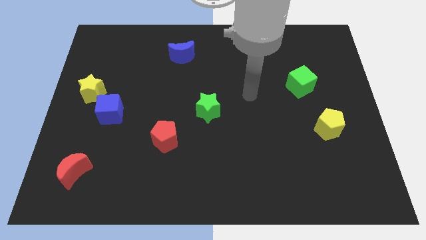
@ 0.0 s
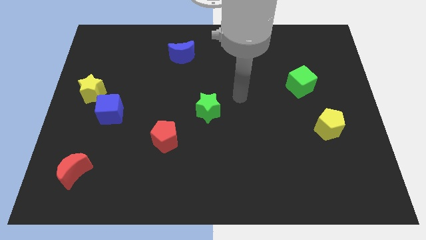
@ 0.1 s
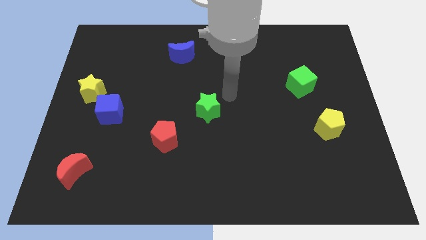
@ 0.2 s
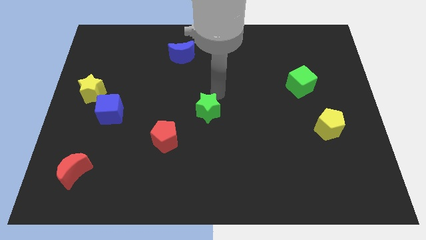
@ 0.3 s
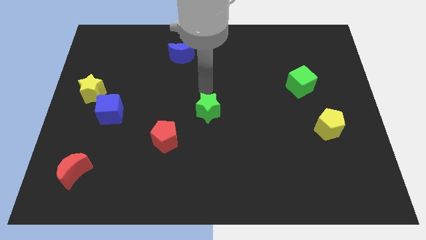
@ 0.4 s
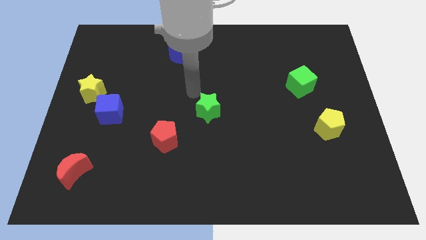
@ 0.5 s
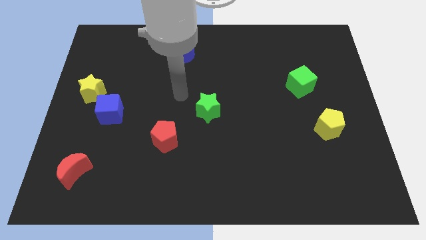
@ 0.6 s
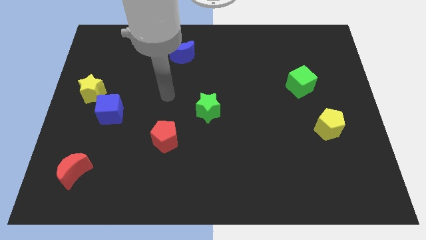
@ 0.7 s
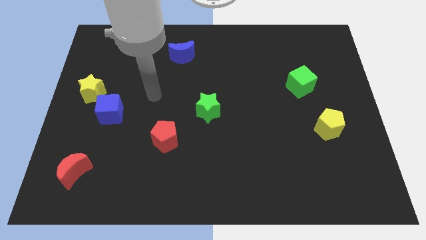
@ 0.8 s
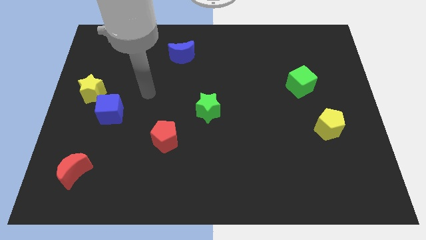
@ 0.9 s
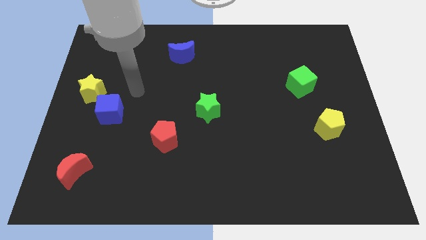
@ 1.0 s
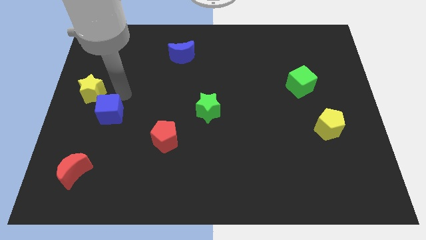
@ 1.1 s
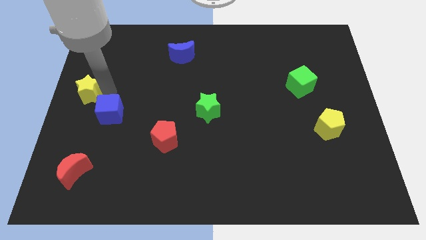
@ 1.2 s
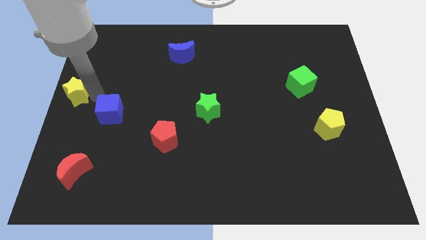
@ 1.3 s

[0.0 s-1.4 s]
move the blue cube away from the yellow star

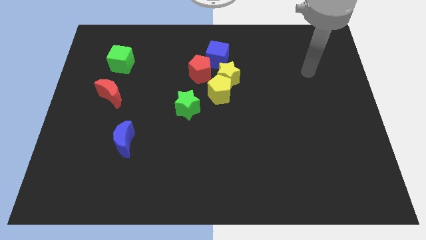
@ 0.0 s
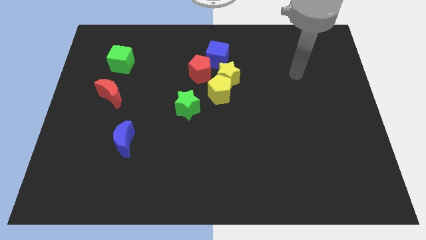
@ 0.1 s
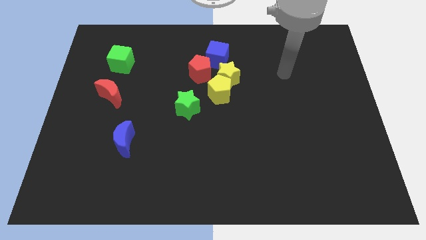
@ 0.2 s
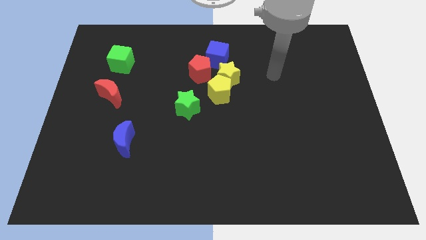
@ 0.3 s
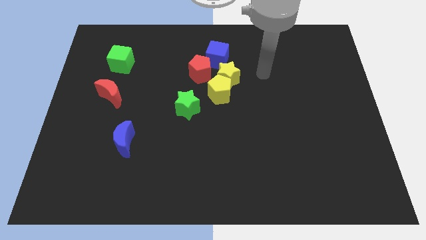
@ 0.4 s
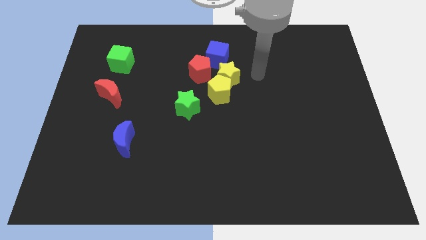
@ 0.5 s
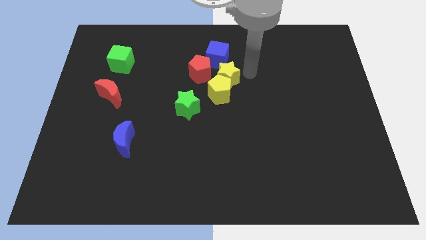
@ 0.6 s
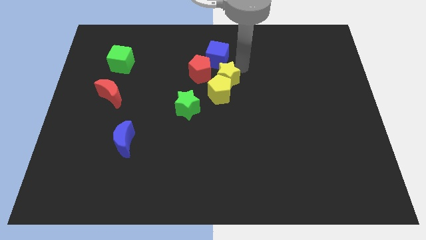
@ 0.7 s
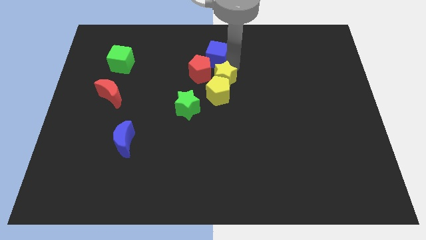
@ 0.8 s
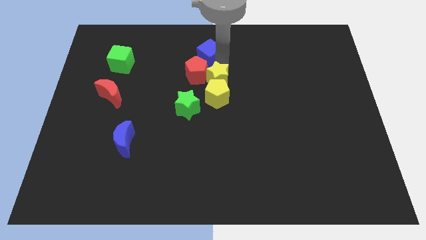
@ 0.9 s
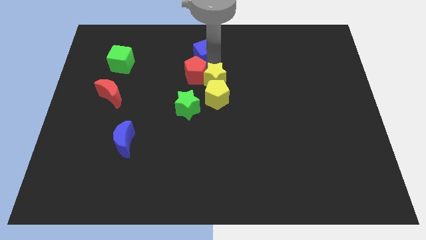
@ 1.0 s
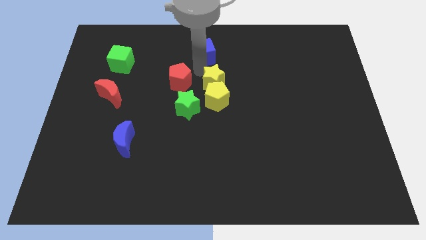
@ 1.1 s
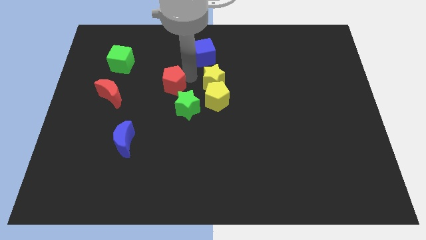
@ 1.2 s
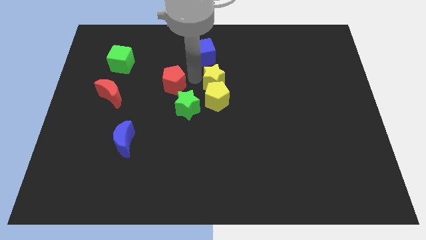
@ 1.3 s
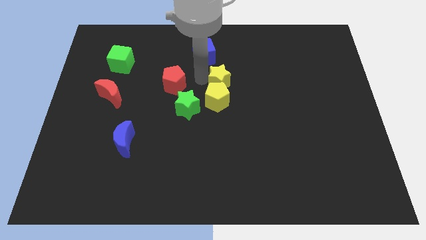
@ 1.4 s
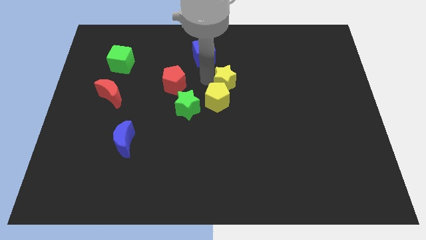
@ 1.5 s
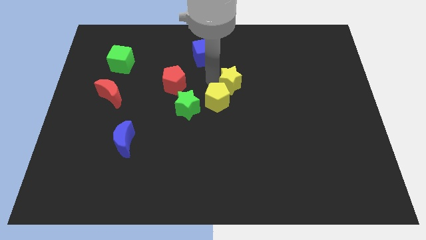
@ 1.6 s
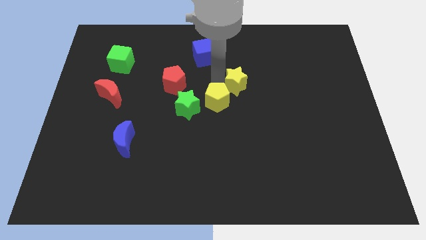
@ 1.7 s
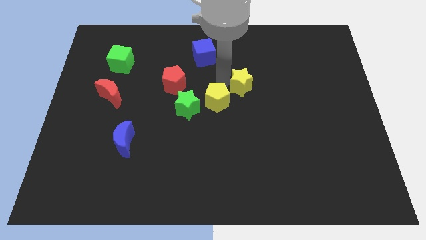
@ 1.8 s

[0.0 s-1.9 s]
move the yellow star away from the yellow pentagon, red pentagon, and blue cube

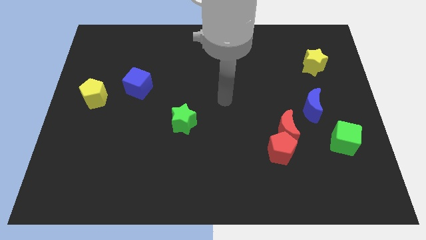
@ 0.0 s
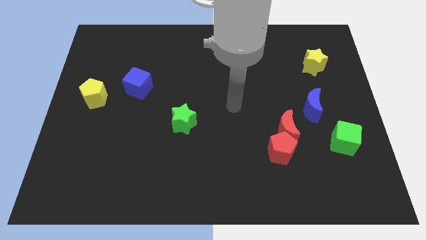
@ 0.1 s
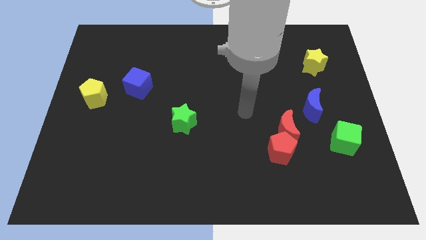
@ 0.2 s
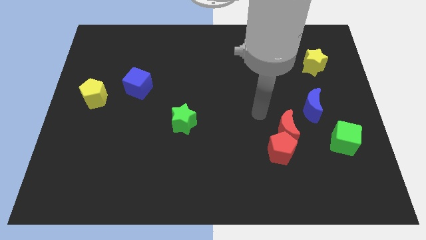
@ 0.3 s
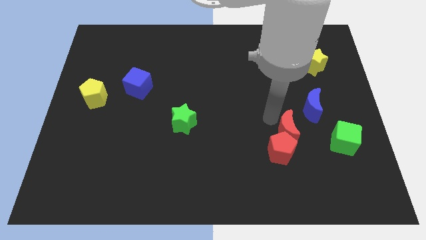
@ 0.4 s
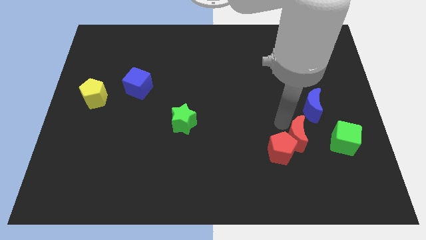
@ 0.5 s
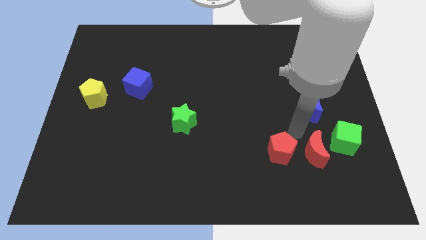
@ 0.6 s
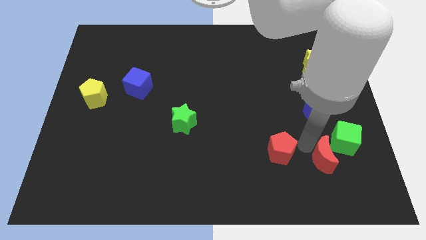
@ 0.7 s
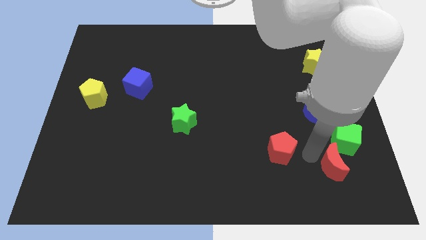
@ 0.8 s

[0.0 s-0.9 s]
move the red pentagon away from the red moon

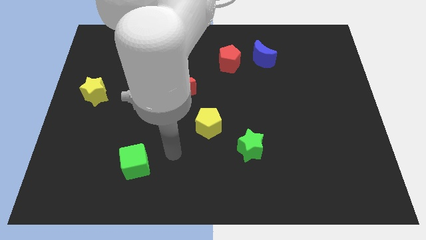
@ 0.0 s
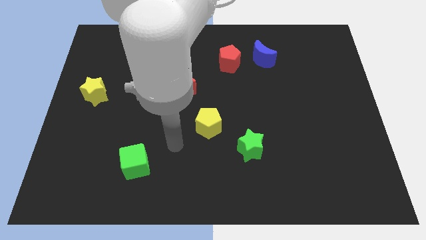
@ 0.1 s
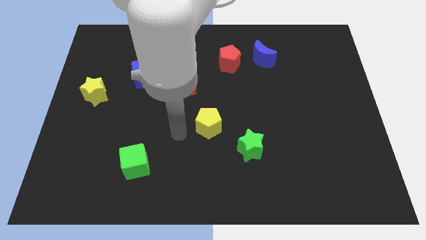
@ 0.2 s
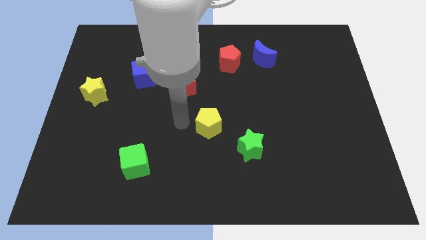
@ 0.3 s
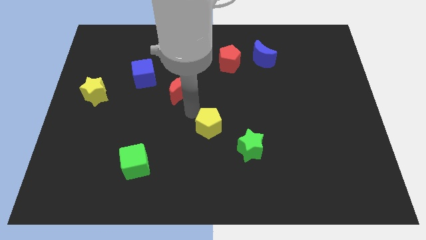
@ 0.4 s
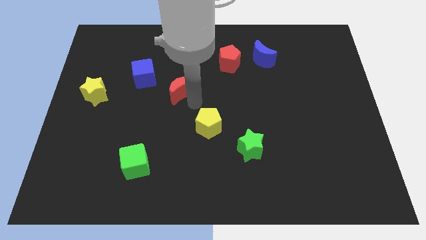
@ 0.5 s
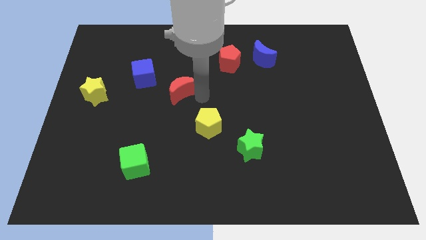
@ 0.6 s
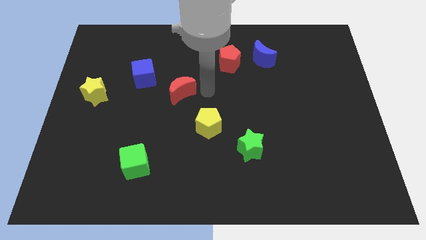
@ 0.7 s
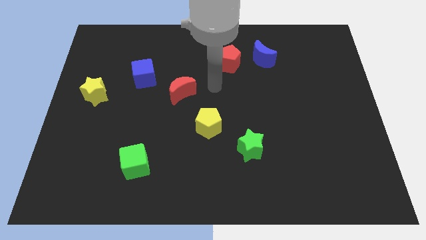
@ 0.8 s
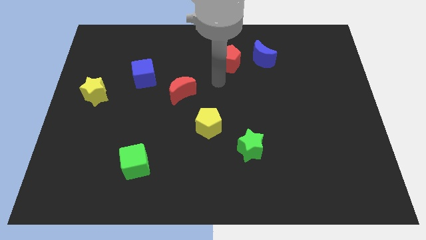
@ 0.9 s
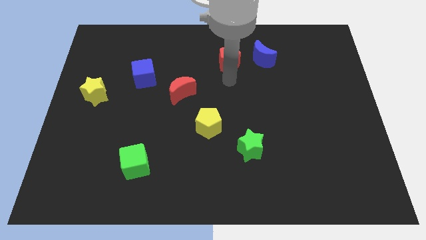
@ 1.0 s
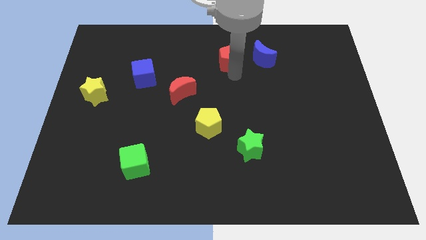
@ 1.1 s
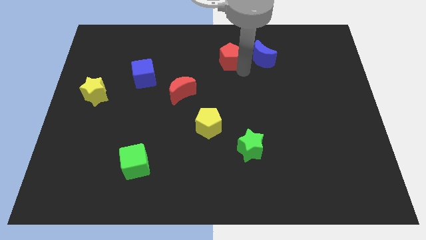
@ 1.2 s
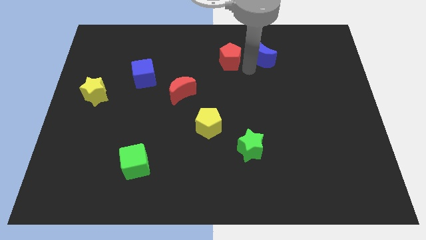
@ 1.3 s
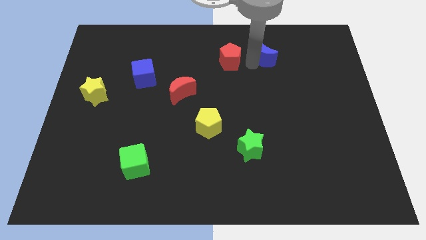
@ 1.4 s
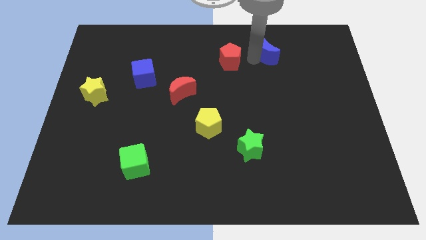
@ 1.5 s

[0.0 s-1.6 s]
move the red pentagon away from the blue moon

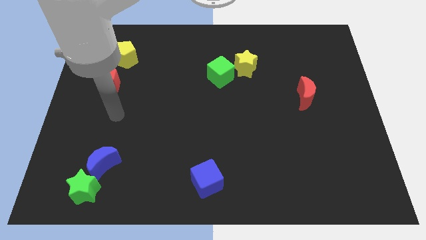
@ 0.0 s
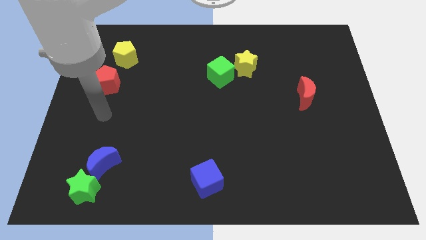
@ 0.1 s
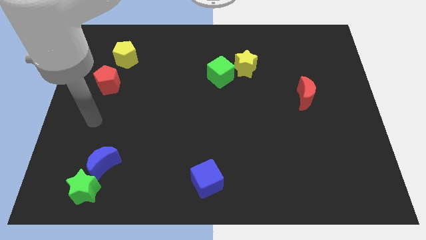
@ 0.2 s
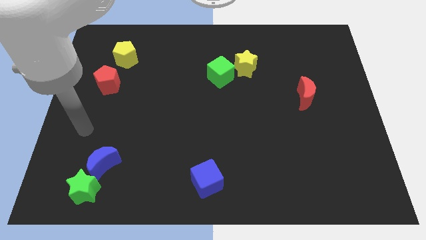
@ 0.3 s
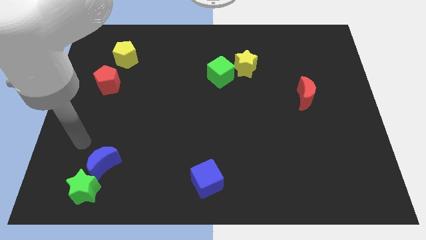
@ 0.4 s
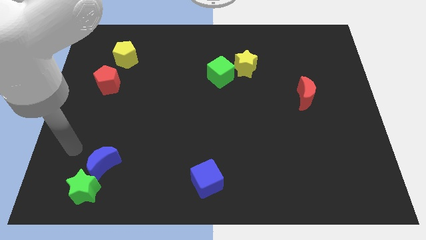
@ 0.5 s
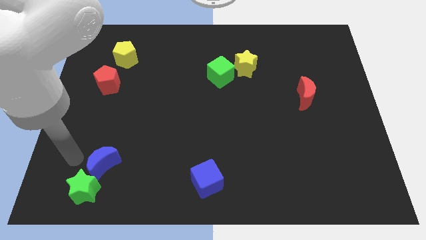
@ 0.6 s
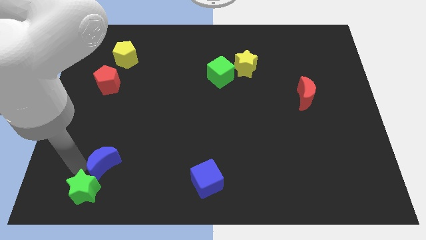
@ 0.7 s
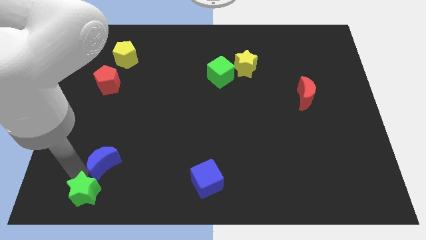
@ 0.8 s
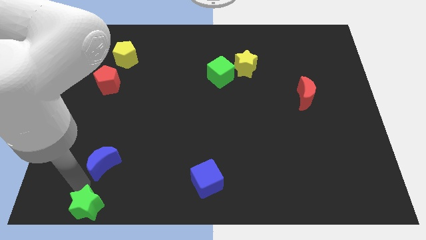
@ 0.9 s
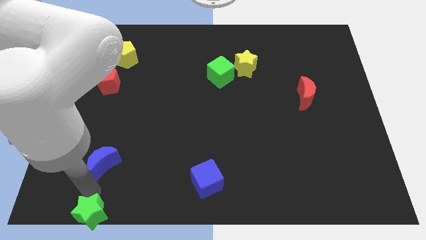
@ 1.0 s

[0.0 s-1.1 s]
move the blue moon away from the green star

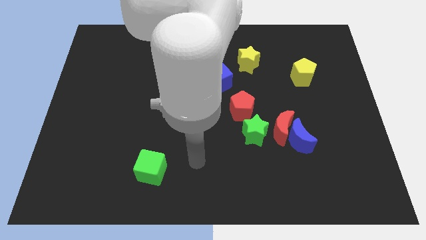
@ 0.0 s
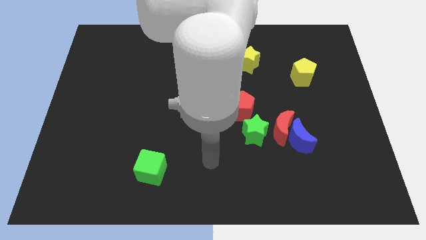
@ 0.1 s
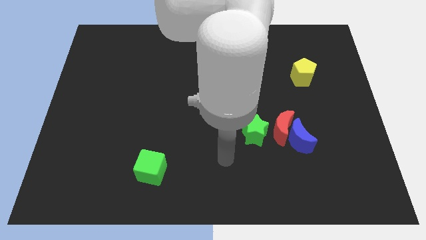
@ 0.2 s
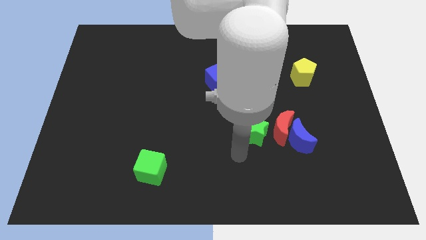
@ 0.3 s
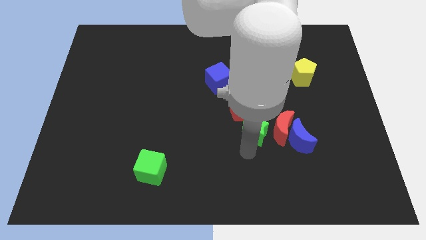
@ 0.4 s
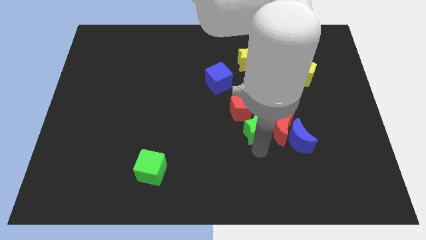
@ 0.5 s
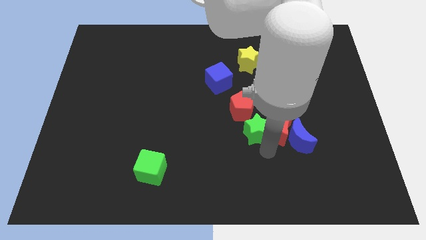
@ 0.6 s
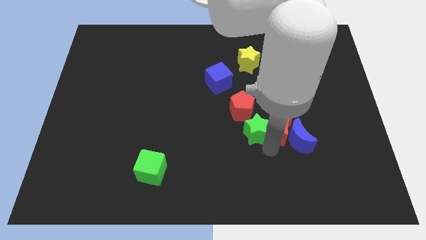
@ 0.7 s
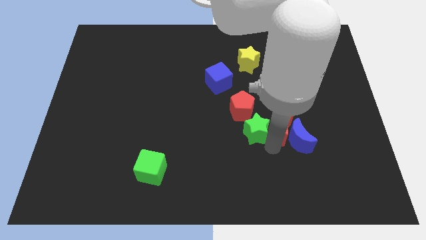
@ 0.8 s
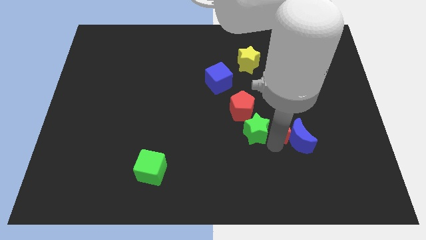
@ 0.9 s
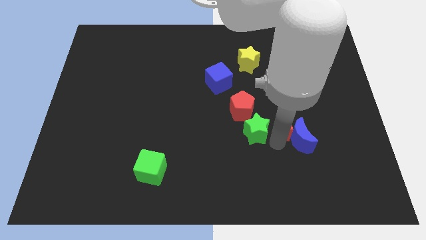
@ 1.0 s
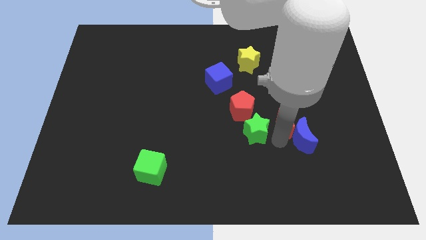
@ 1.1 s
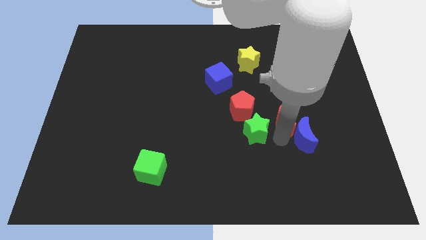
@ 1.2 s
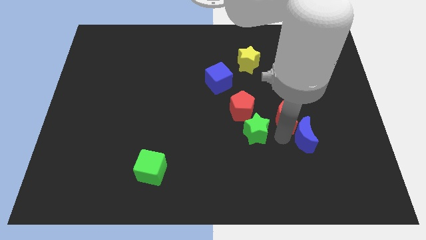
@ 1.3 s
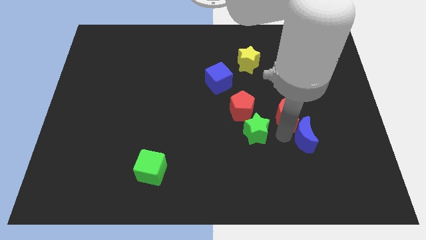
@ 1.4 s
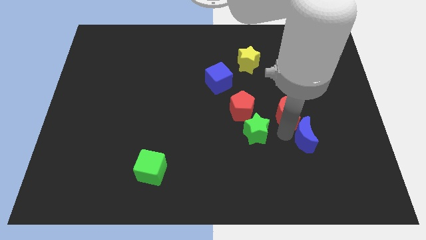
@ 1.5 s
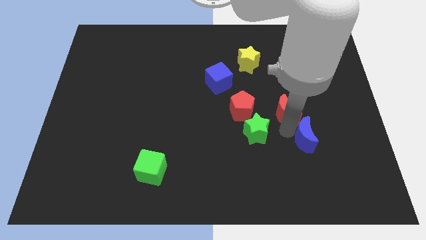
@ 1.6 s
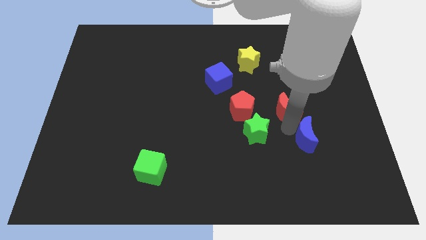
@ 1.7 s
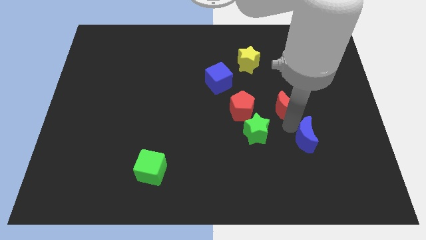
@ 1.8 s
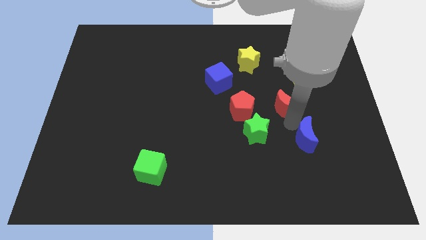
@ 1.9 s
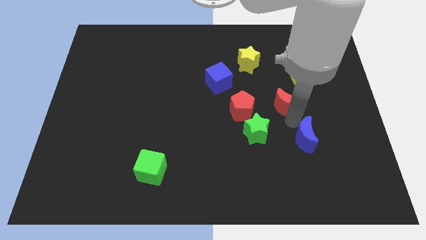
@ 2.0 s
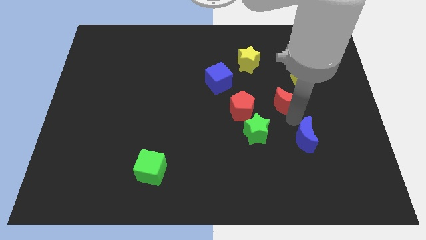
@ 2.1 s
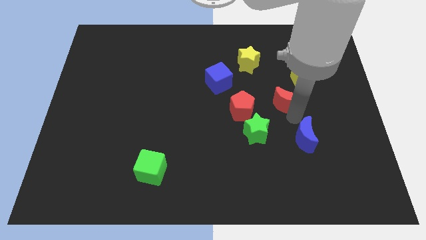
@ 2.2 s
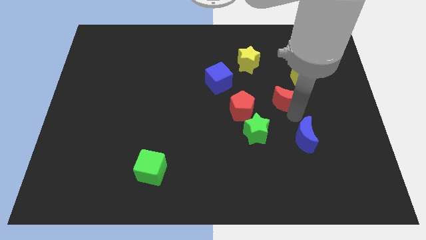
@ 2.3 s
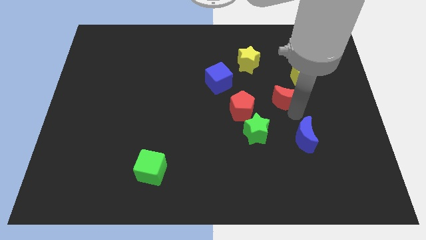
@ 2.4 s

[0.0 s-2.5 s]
move the red moon away from the blue moon and green star

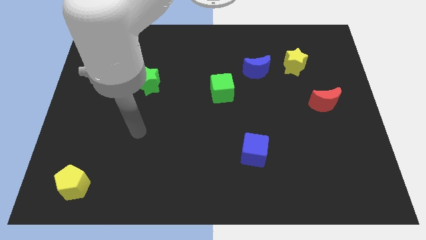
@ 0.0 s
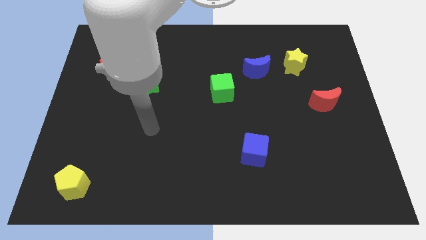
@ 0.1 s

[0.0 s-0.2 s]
separate the blue moon from the yellow star
